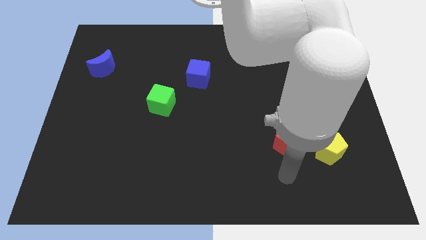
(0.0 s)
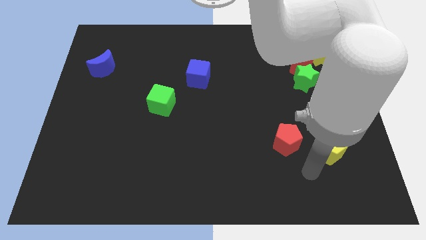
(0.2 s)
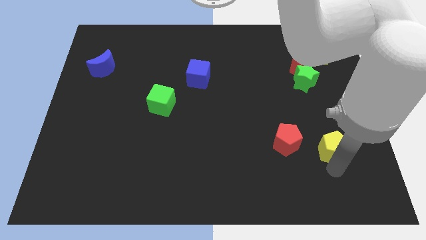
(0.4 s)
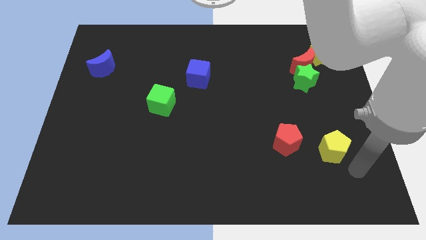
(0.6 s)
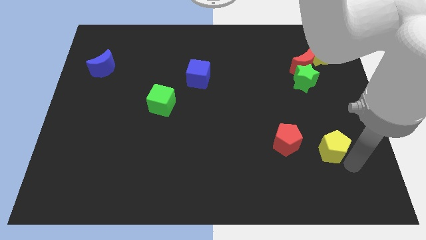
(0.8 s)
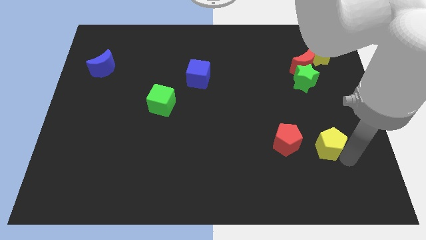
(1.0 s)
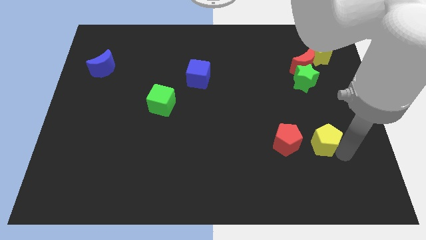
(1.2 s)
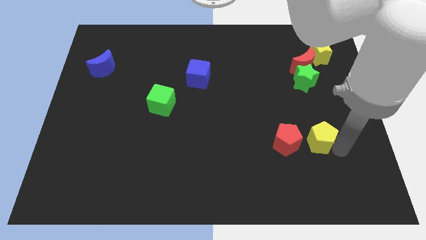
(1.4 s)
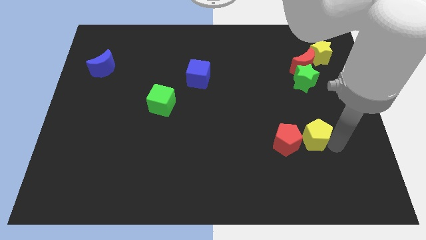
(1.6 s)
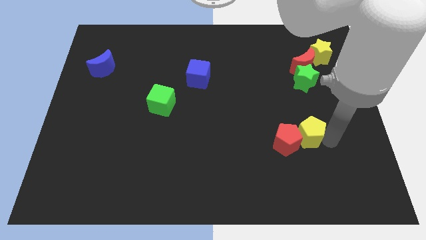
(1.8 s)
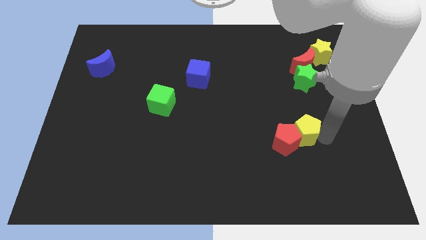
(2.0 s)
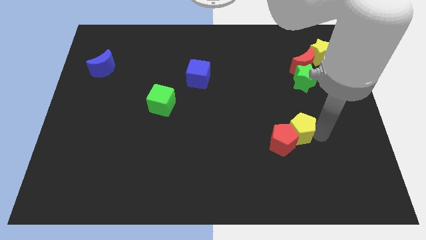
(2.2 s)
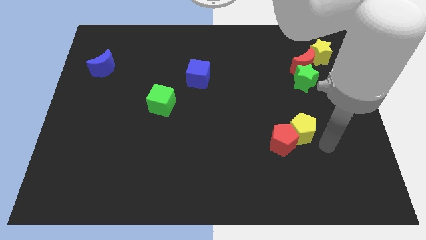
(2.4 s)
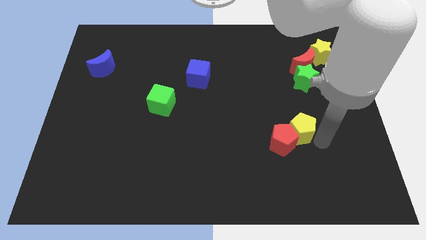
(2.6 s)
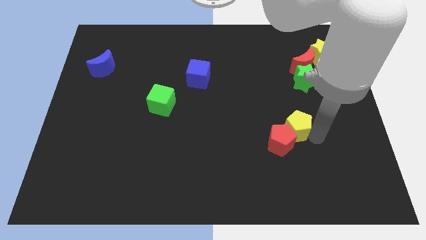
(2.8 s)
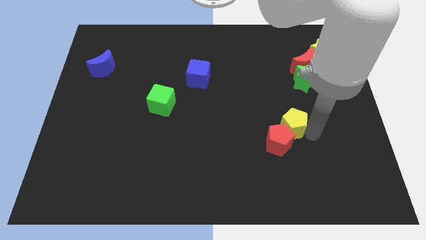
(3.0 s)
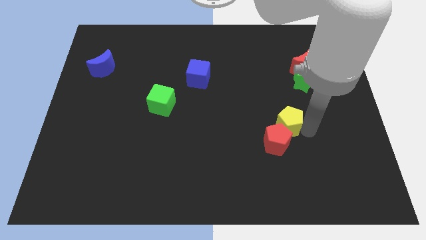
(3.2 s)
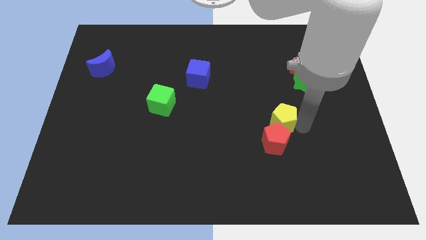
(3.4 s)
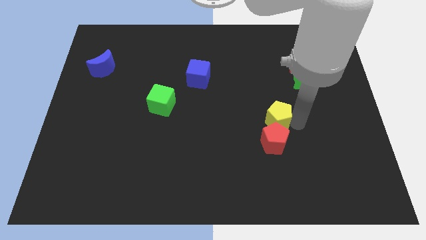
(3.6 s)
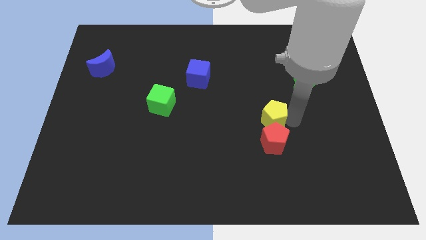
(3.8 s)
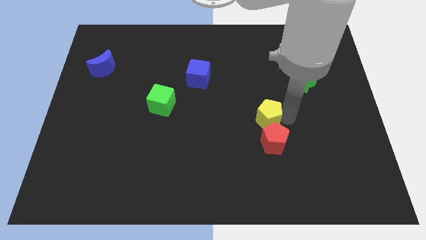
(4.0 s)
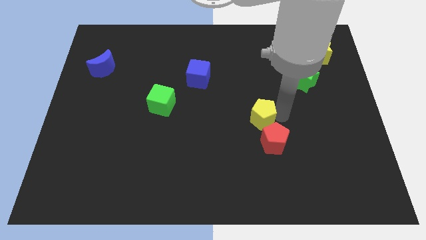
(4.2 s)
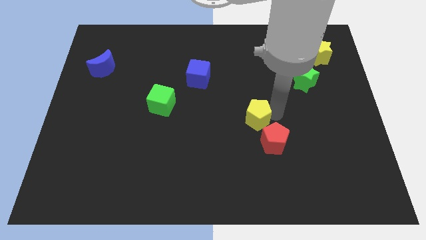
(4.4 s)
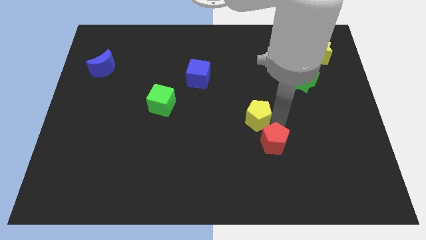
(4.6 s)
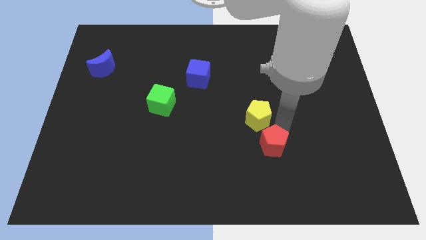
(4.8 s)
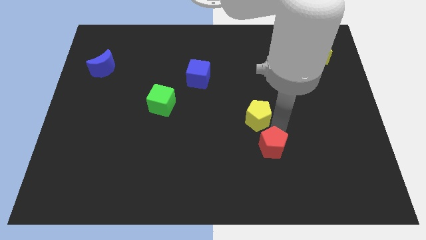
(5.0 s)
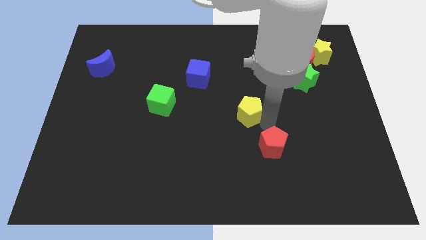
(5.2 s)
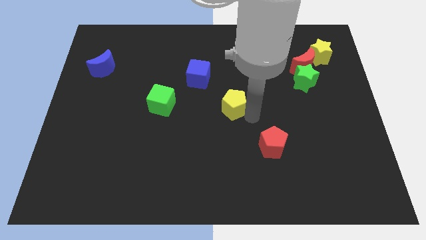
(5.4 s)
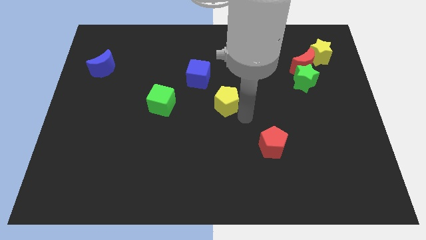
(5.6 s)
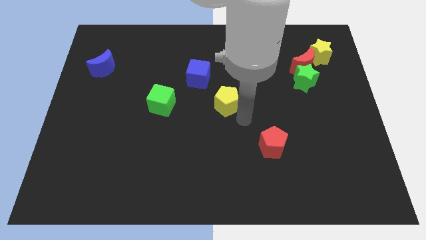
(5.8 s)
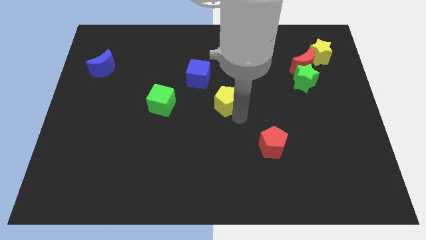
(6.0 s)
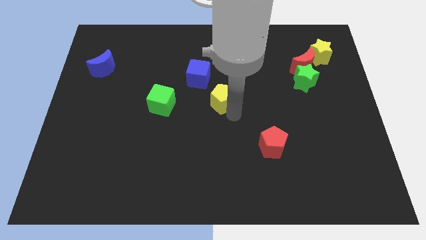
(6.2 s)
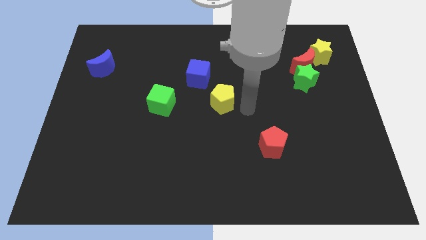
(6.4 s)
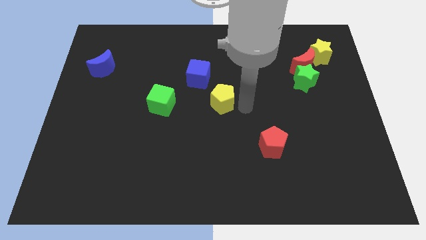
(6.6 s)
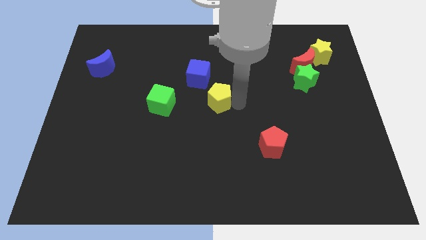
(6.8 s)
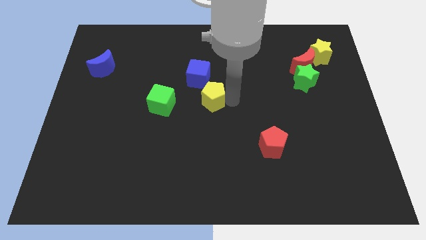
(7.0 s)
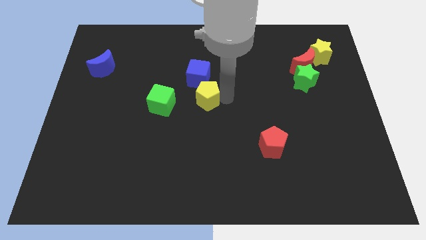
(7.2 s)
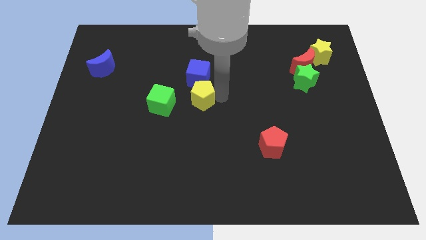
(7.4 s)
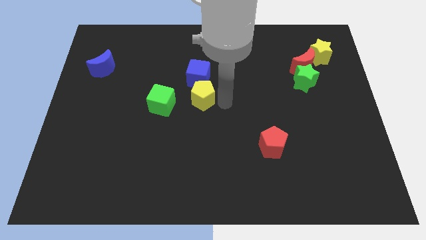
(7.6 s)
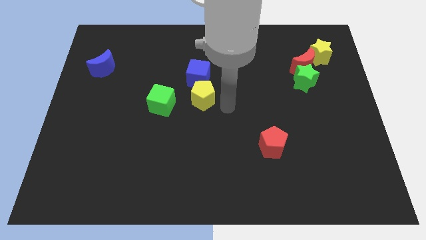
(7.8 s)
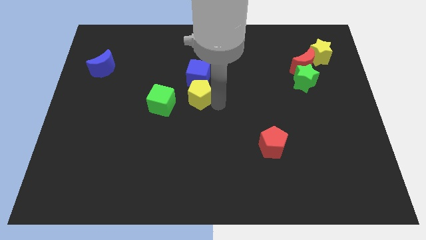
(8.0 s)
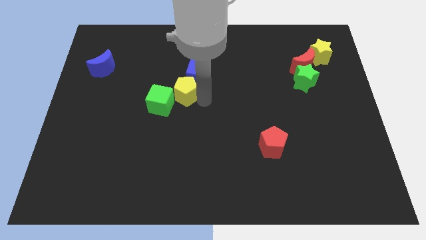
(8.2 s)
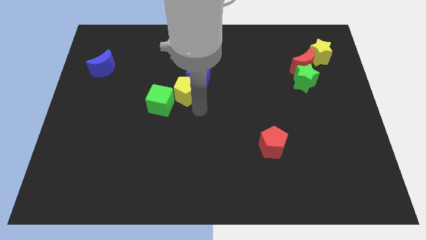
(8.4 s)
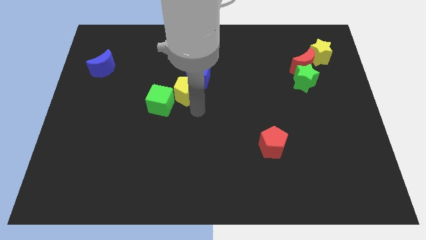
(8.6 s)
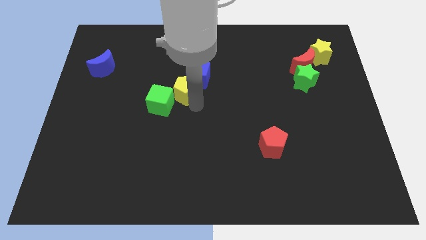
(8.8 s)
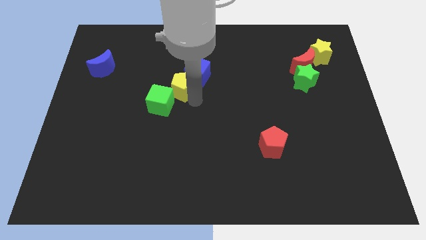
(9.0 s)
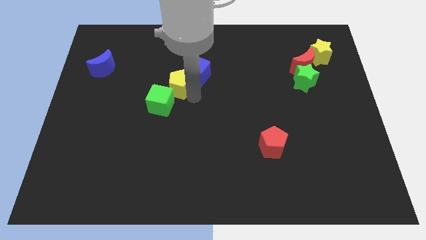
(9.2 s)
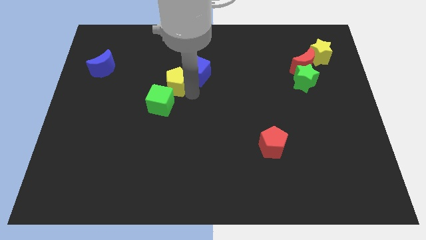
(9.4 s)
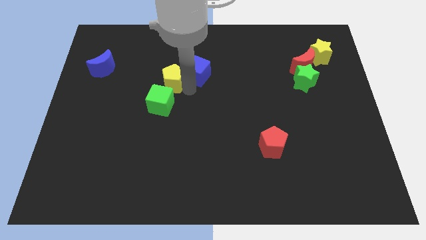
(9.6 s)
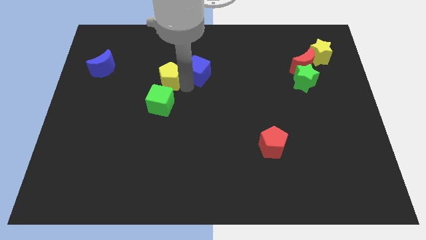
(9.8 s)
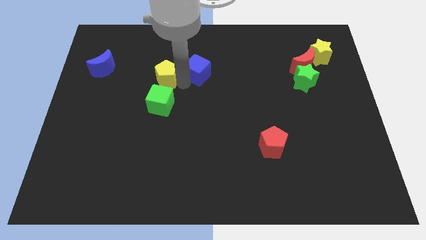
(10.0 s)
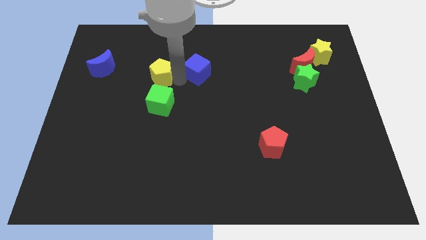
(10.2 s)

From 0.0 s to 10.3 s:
push the yellow pentagon just right of the blue moon

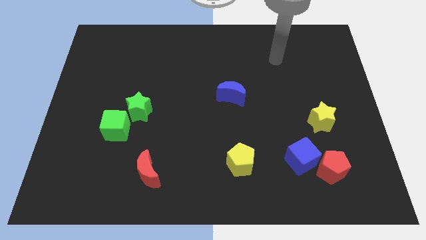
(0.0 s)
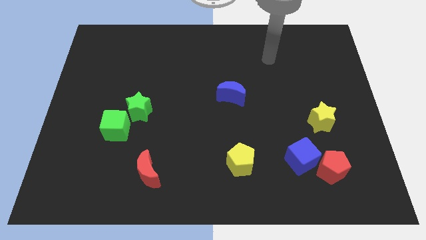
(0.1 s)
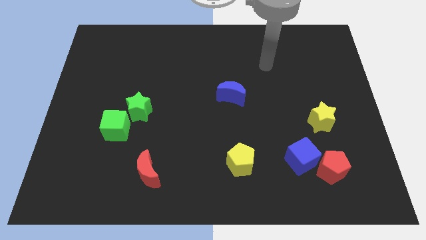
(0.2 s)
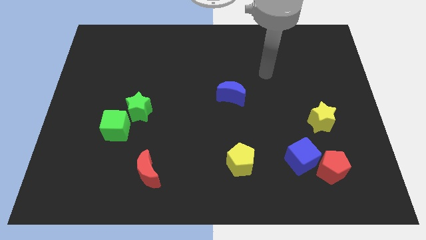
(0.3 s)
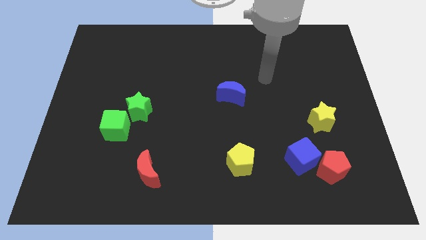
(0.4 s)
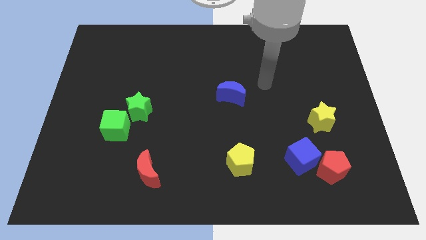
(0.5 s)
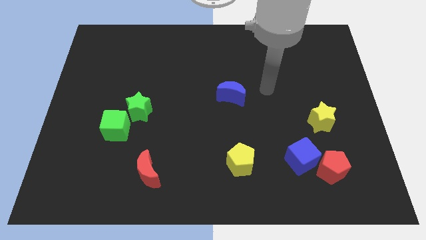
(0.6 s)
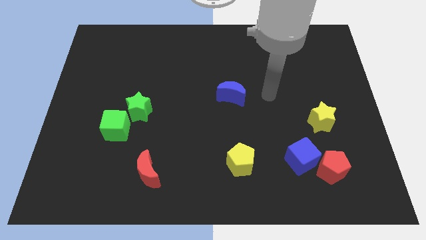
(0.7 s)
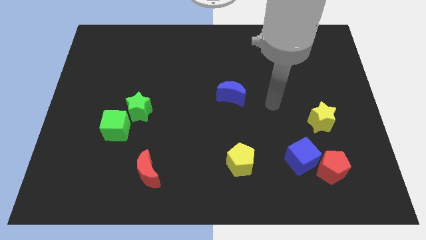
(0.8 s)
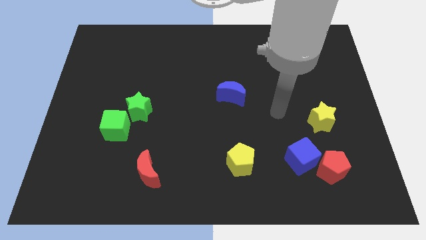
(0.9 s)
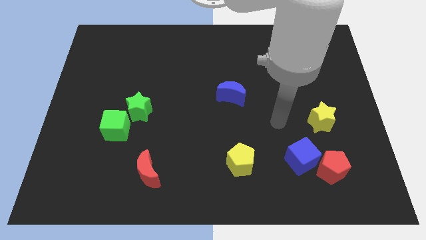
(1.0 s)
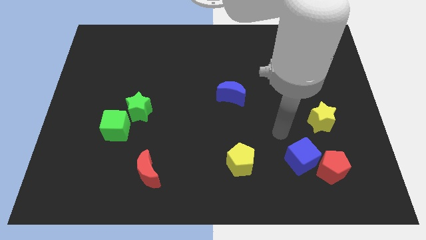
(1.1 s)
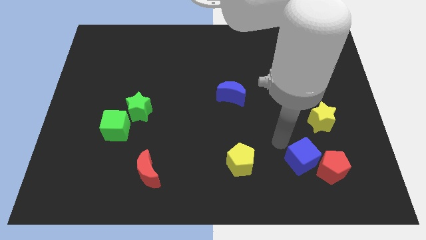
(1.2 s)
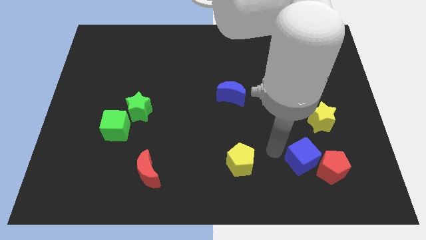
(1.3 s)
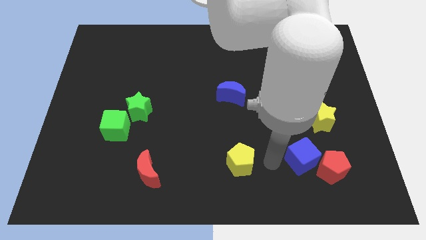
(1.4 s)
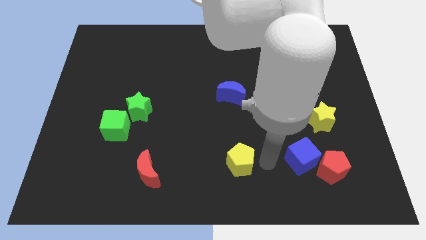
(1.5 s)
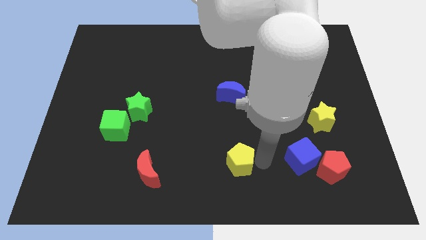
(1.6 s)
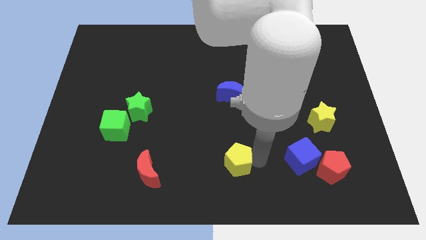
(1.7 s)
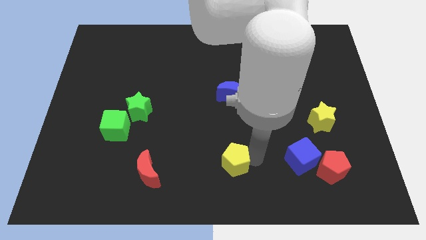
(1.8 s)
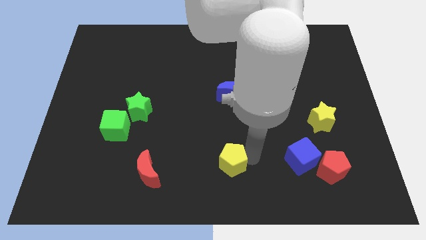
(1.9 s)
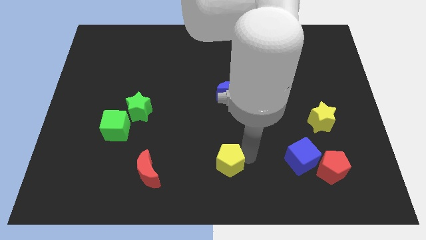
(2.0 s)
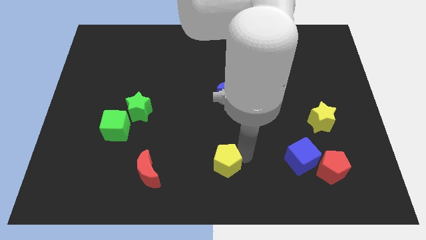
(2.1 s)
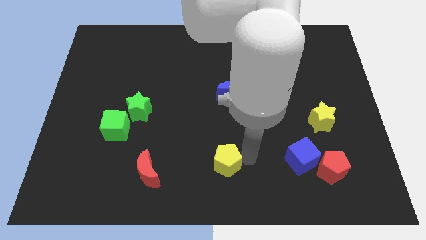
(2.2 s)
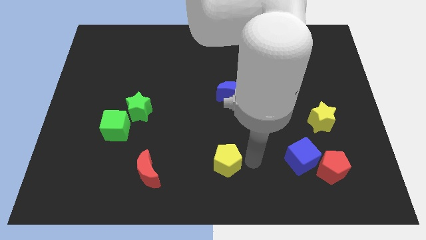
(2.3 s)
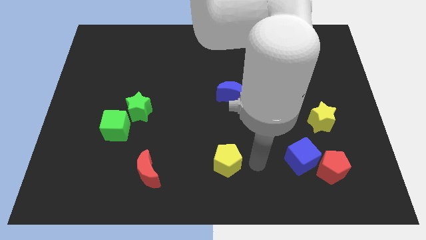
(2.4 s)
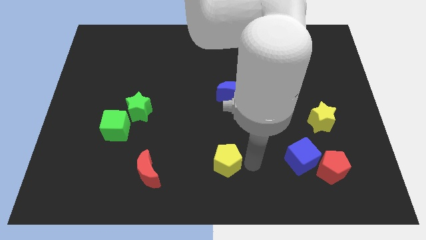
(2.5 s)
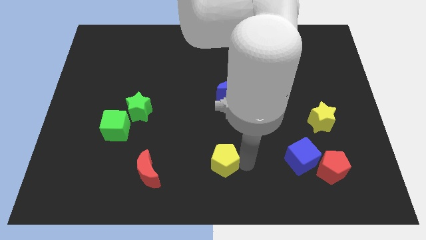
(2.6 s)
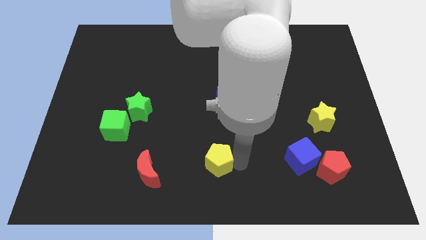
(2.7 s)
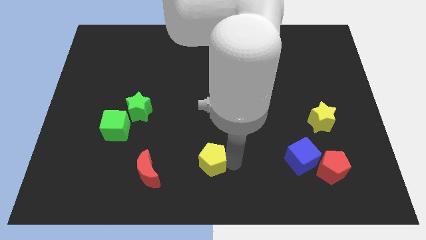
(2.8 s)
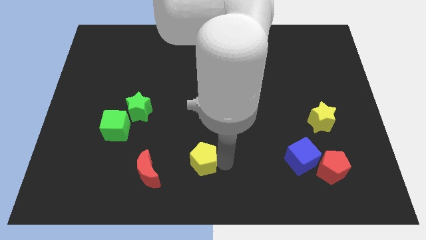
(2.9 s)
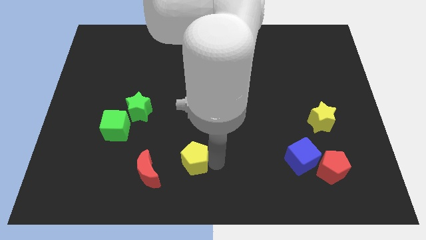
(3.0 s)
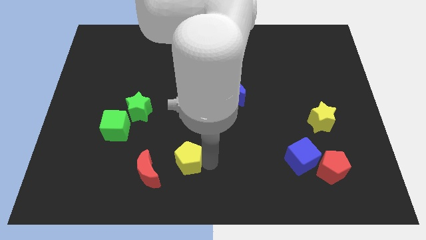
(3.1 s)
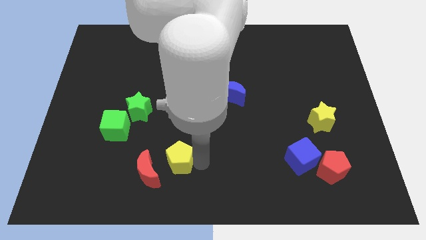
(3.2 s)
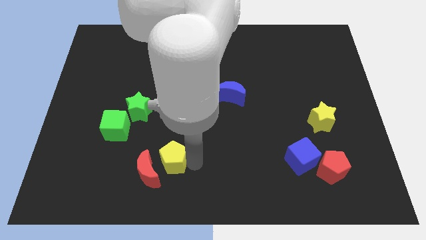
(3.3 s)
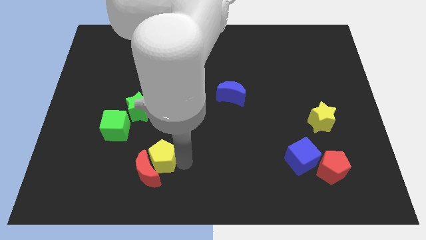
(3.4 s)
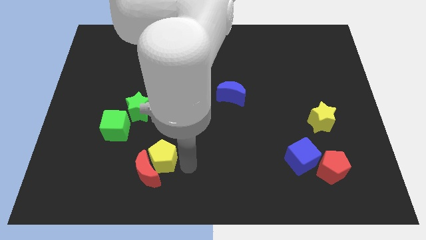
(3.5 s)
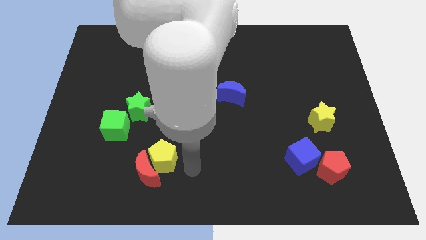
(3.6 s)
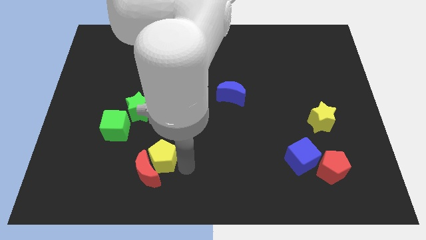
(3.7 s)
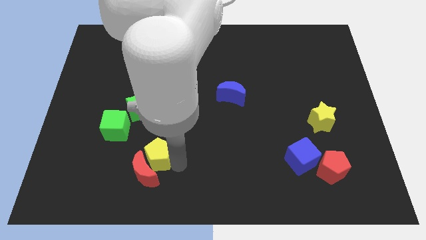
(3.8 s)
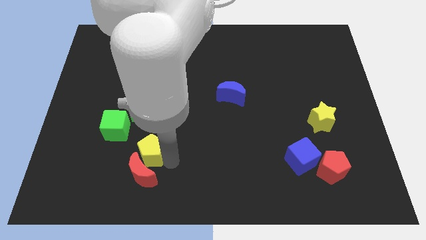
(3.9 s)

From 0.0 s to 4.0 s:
slide the yellow pentagon below the green star
